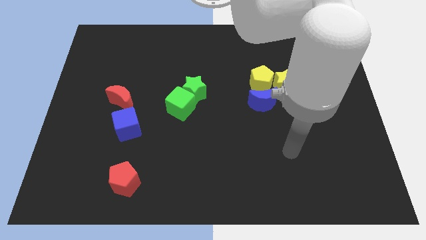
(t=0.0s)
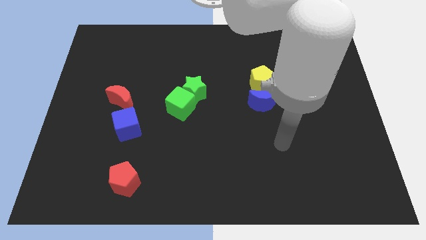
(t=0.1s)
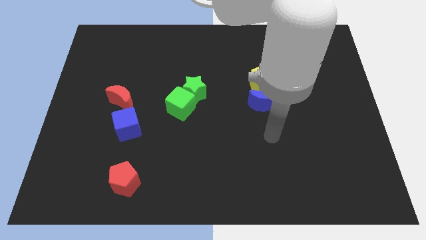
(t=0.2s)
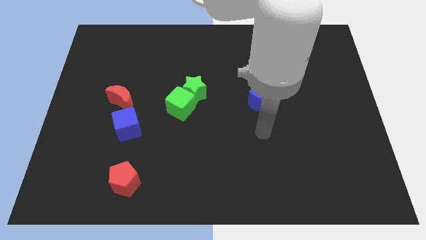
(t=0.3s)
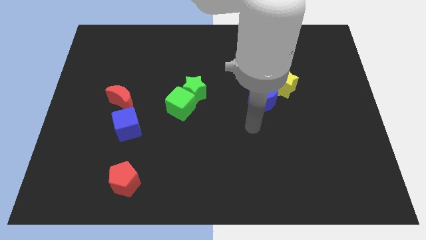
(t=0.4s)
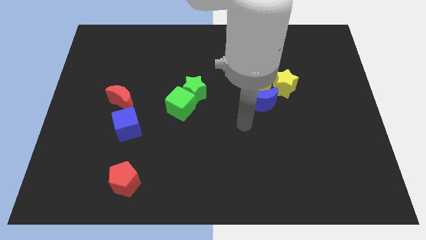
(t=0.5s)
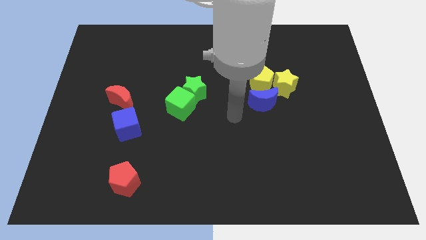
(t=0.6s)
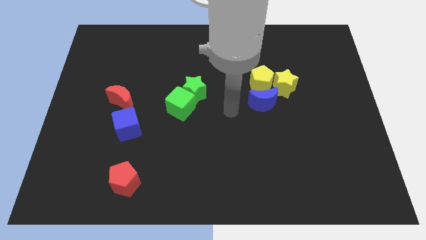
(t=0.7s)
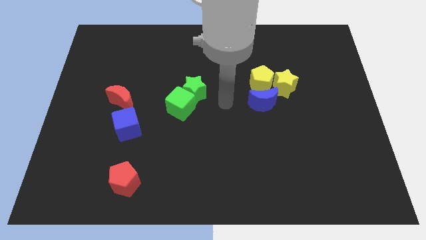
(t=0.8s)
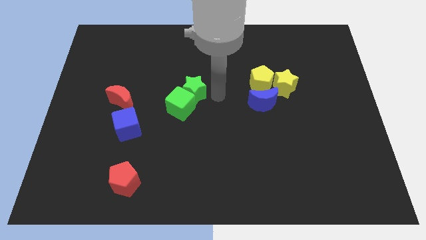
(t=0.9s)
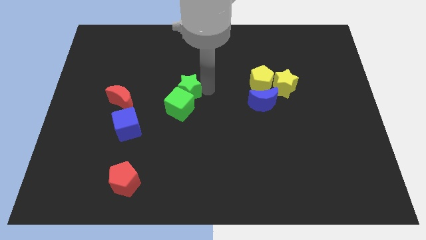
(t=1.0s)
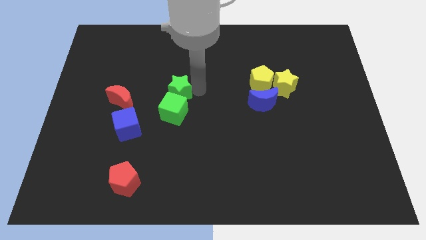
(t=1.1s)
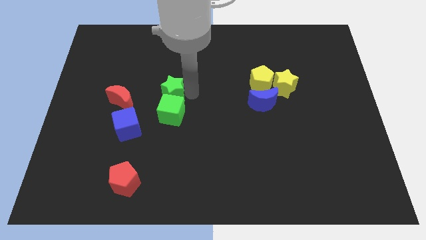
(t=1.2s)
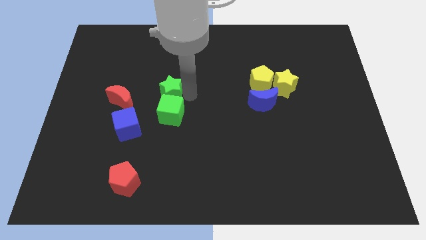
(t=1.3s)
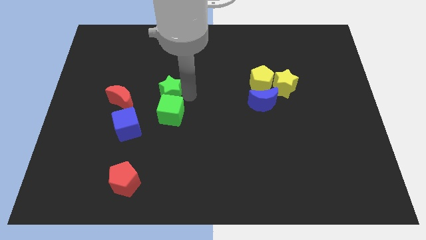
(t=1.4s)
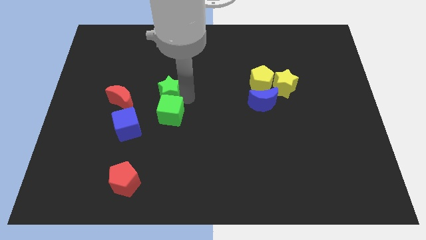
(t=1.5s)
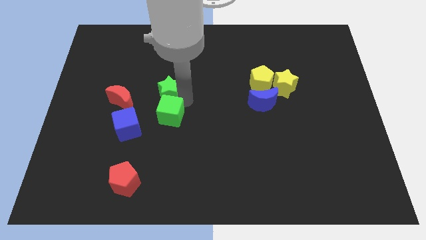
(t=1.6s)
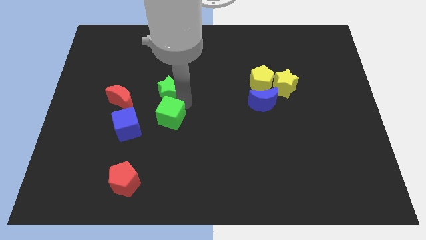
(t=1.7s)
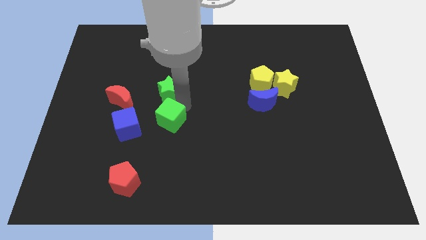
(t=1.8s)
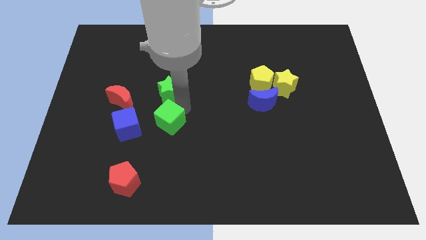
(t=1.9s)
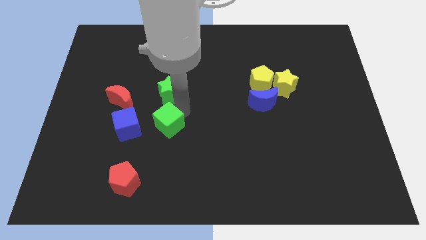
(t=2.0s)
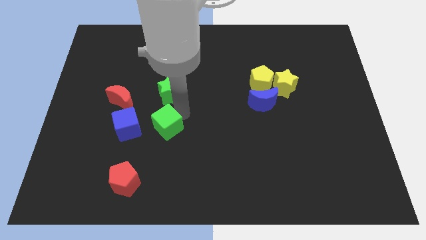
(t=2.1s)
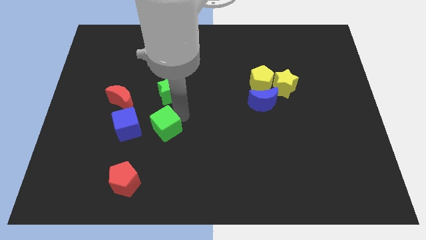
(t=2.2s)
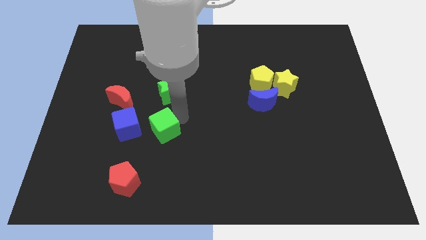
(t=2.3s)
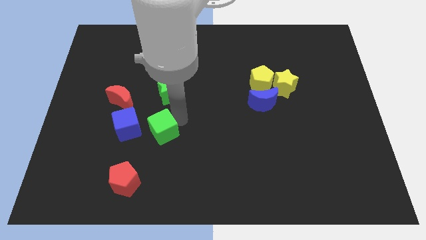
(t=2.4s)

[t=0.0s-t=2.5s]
push the green cube downwards and then left a bit

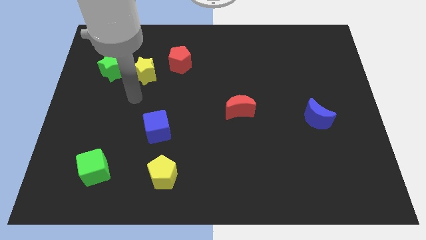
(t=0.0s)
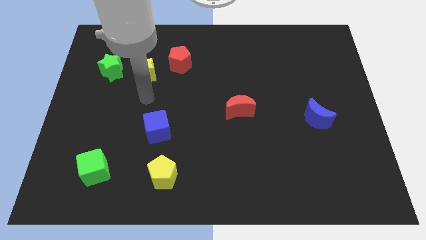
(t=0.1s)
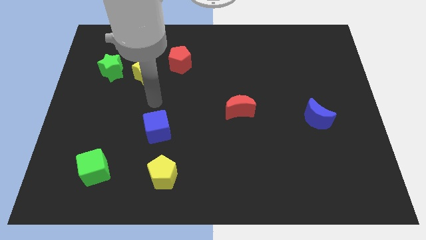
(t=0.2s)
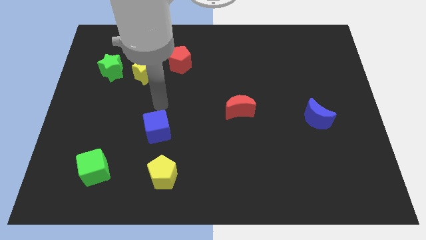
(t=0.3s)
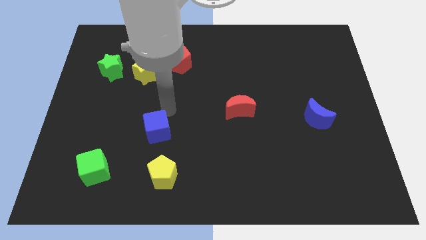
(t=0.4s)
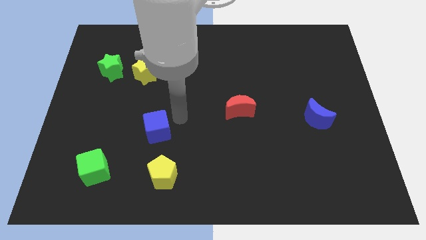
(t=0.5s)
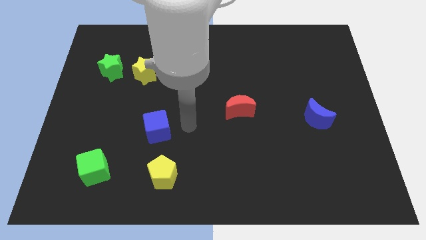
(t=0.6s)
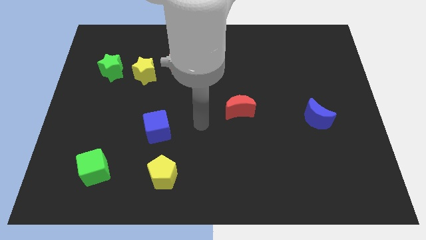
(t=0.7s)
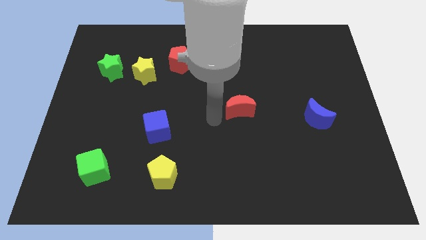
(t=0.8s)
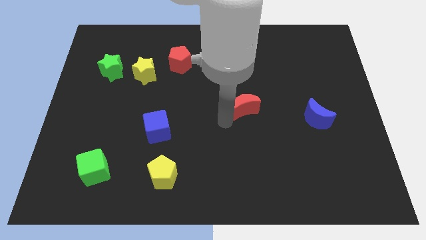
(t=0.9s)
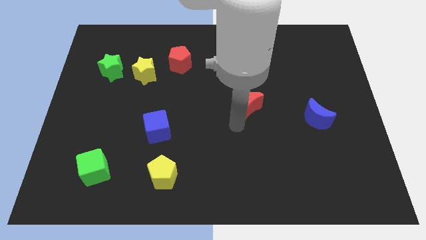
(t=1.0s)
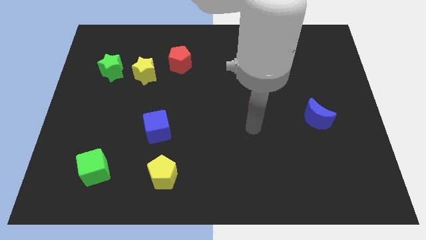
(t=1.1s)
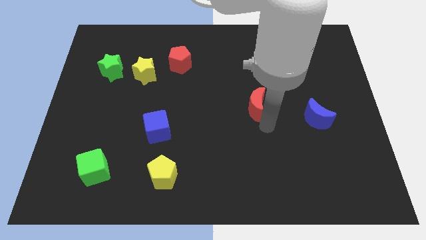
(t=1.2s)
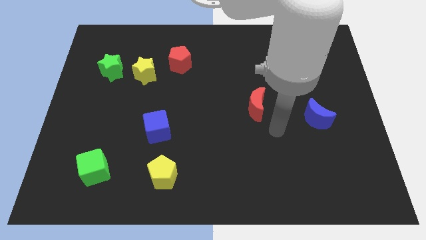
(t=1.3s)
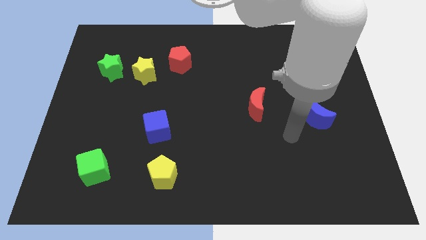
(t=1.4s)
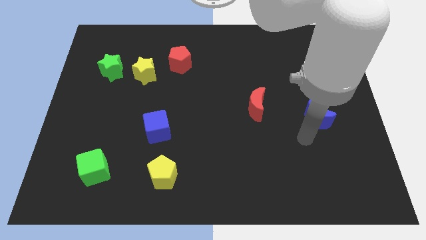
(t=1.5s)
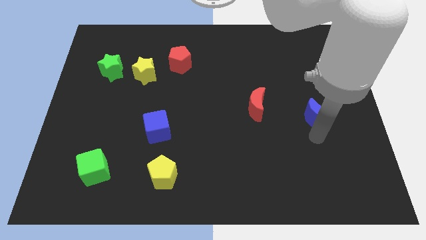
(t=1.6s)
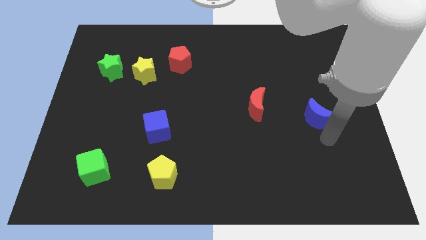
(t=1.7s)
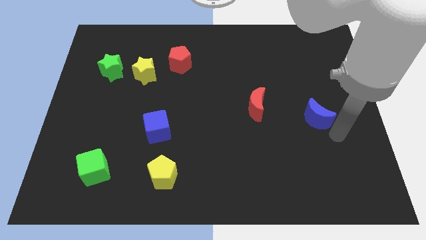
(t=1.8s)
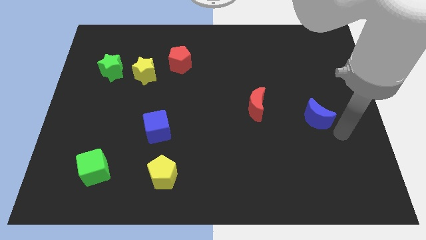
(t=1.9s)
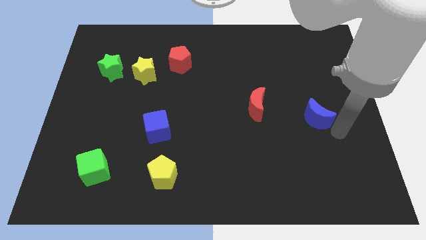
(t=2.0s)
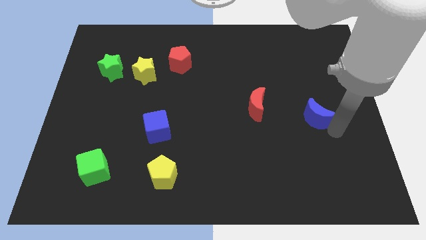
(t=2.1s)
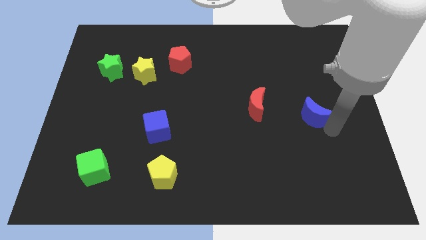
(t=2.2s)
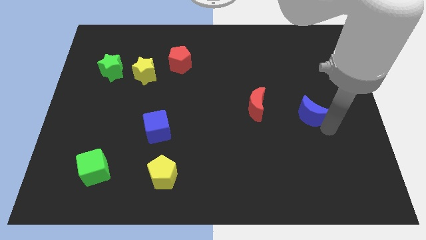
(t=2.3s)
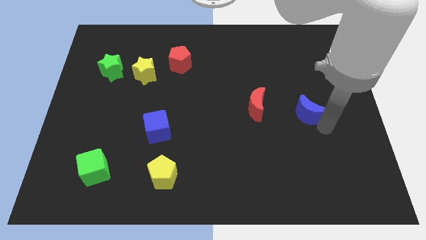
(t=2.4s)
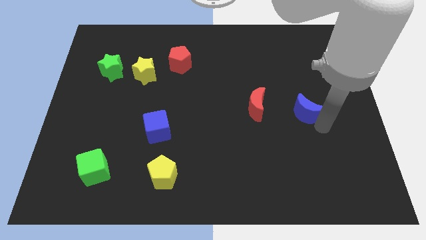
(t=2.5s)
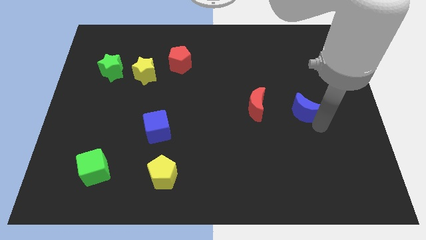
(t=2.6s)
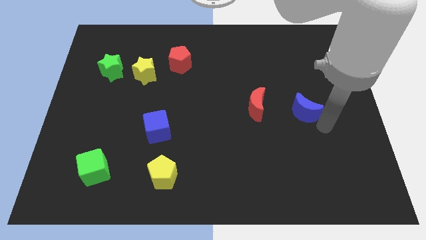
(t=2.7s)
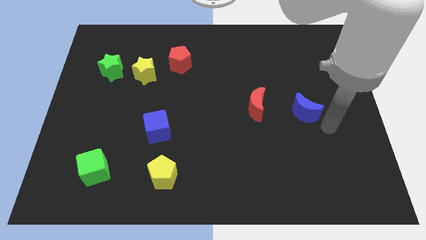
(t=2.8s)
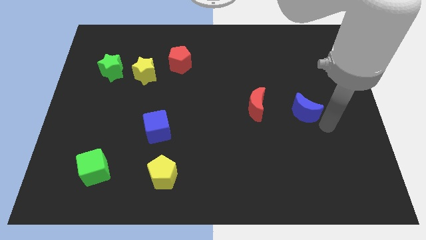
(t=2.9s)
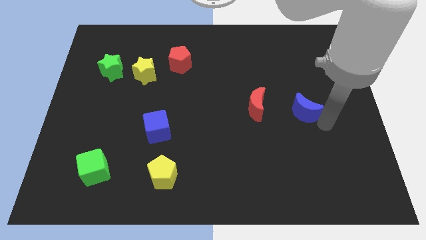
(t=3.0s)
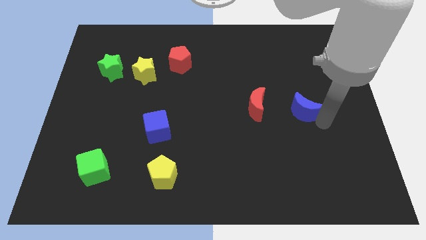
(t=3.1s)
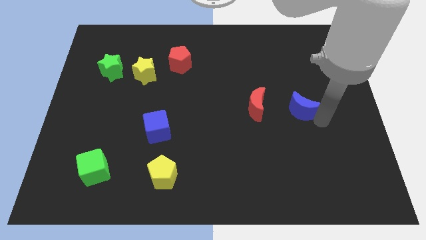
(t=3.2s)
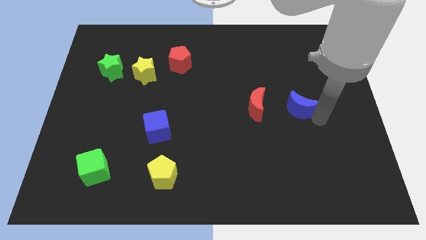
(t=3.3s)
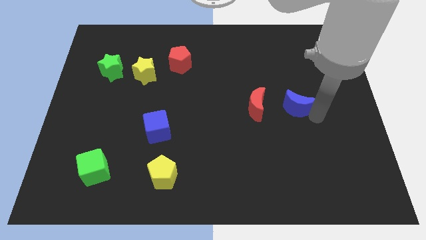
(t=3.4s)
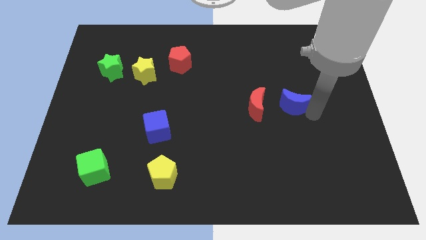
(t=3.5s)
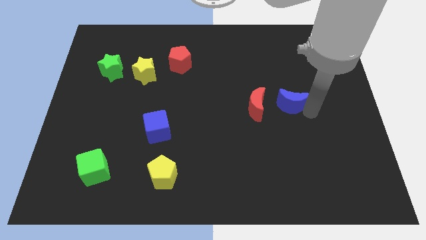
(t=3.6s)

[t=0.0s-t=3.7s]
slightly slide the blue moon diagonally upwards and to the left

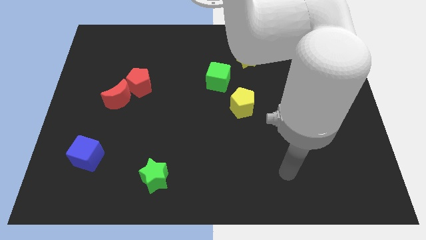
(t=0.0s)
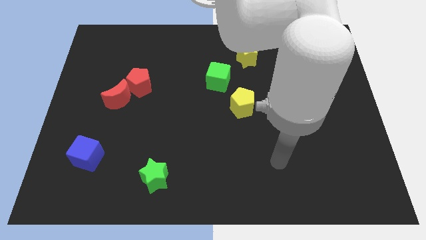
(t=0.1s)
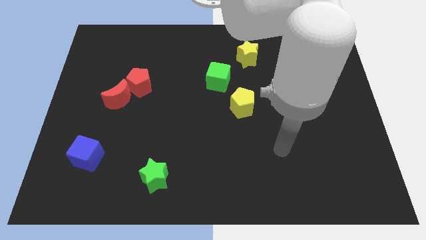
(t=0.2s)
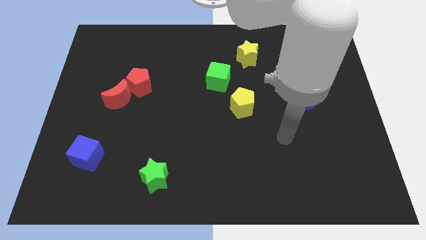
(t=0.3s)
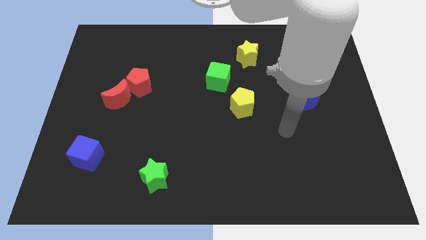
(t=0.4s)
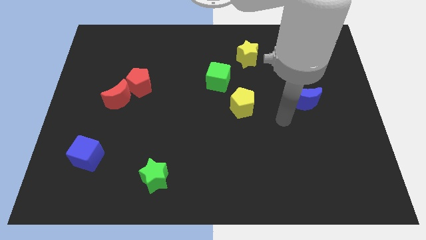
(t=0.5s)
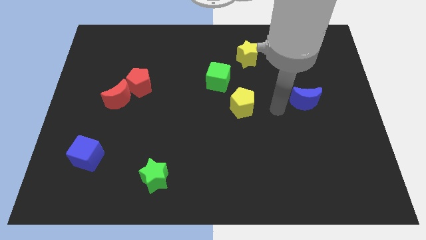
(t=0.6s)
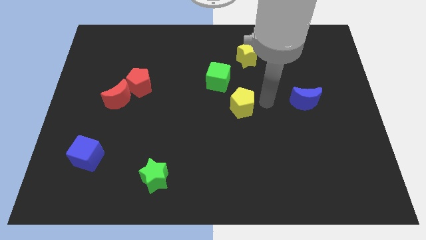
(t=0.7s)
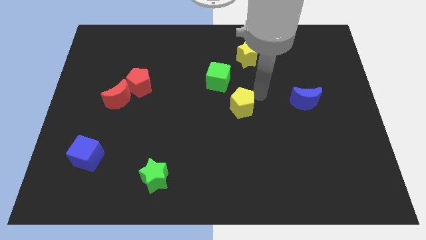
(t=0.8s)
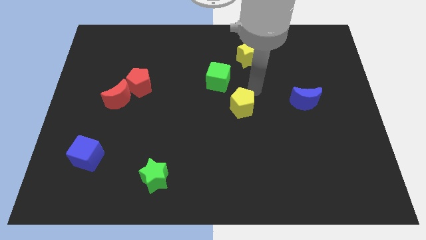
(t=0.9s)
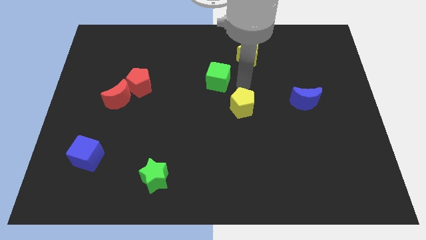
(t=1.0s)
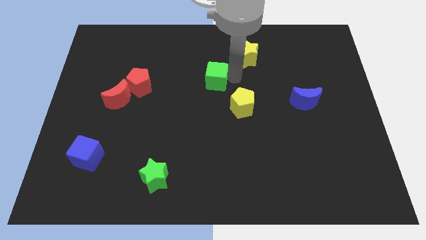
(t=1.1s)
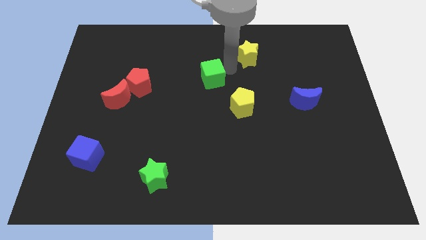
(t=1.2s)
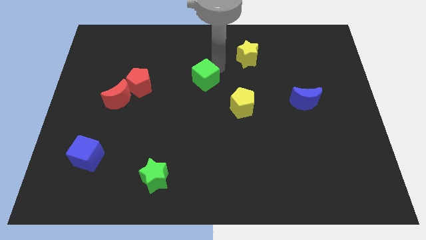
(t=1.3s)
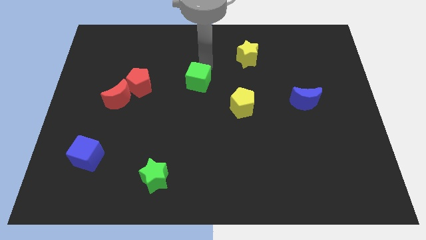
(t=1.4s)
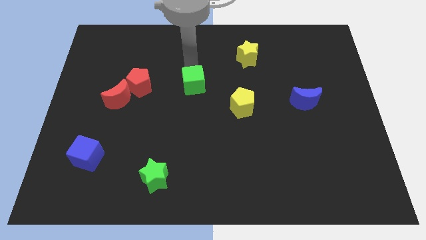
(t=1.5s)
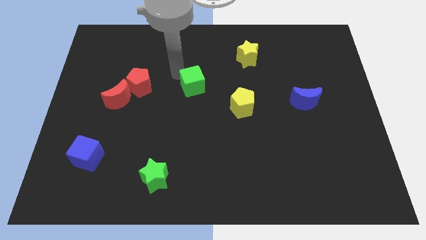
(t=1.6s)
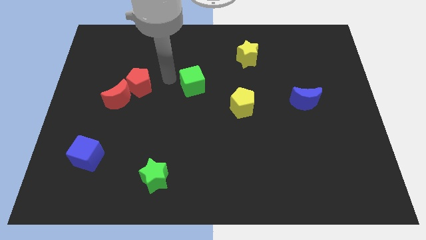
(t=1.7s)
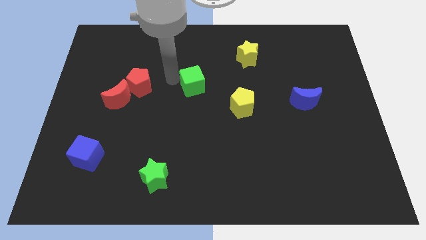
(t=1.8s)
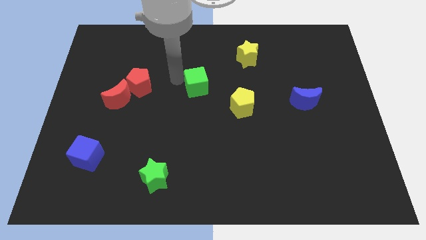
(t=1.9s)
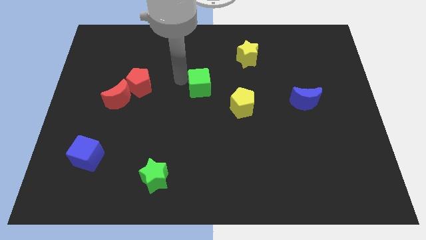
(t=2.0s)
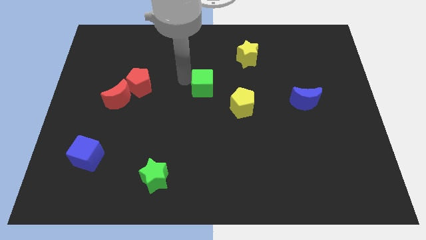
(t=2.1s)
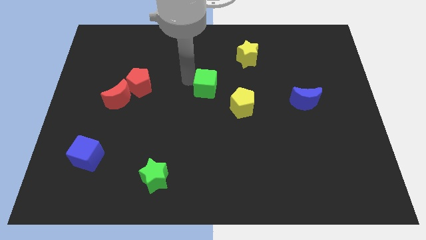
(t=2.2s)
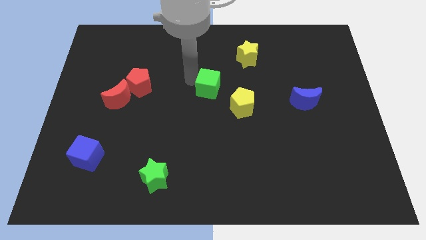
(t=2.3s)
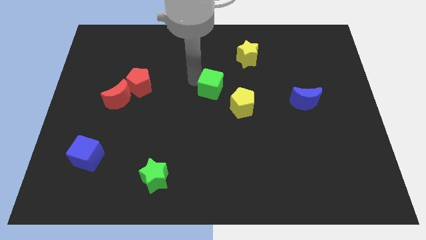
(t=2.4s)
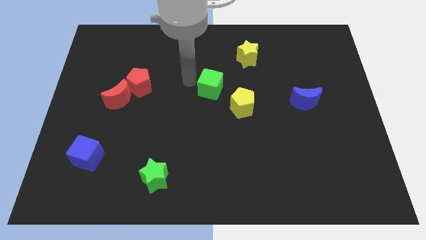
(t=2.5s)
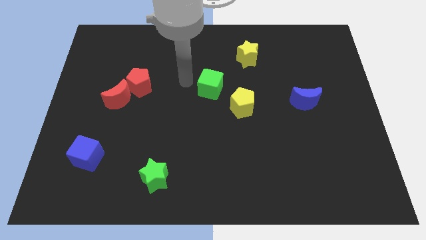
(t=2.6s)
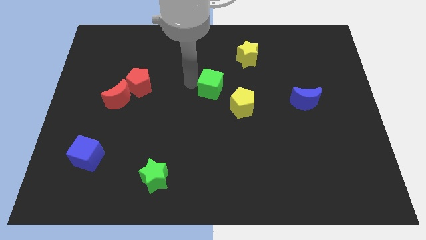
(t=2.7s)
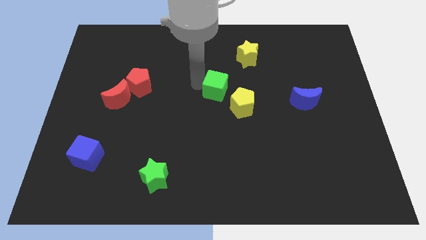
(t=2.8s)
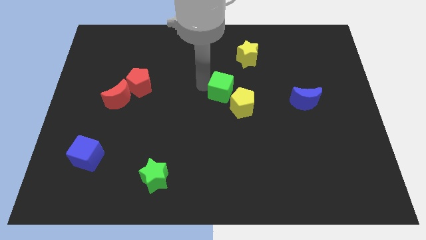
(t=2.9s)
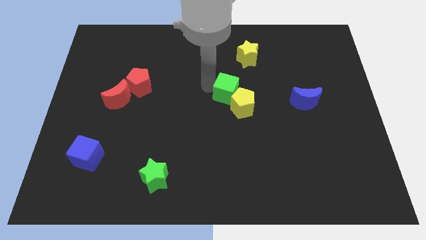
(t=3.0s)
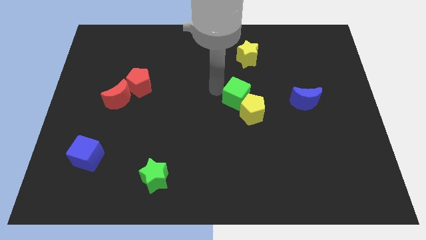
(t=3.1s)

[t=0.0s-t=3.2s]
slightly move the green cube downwards and right
